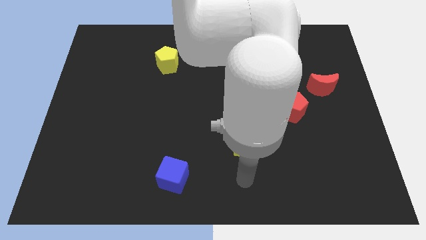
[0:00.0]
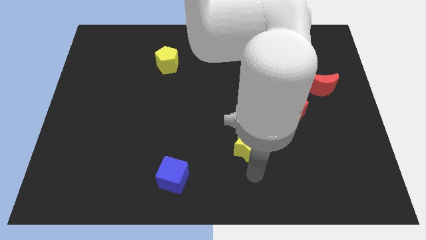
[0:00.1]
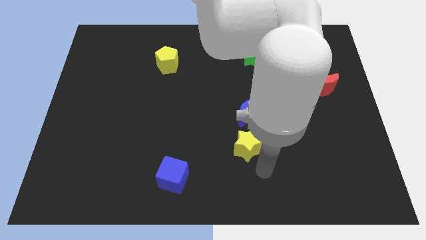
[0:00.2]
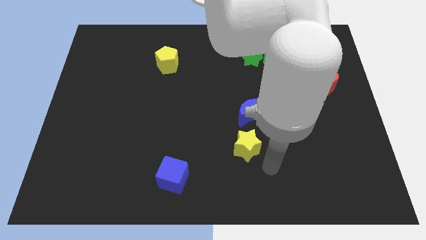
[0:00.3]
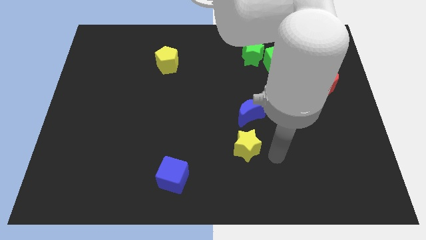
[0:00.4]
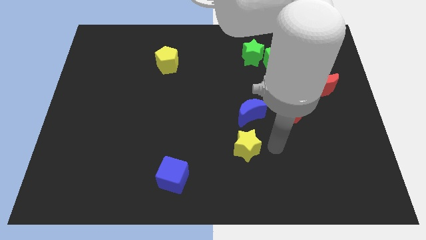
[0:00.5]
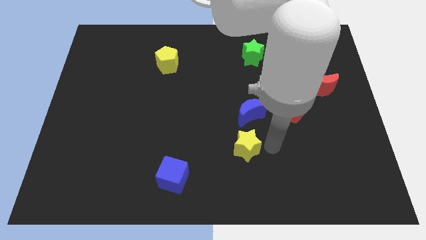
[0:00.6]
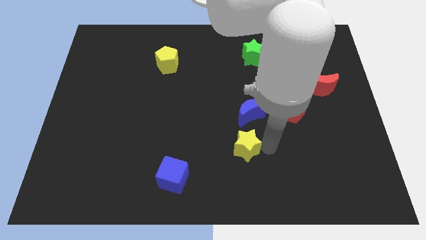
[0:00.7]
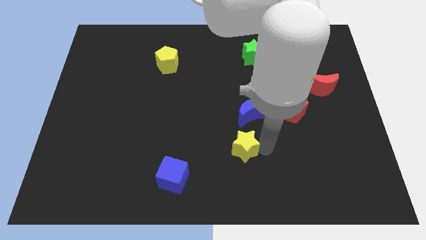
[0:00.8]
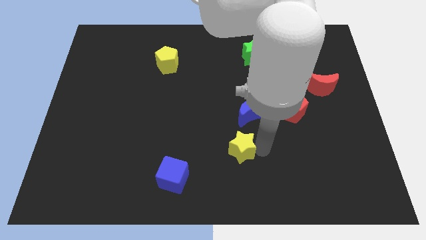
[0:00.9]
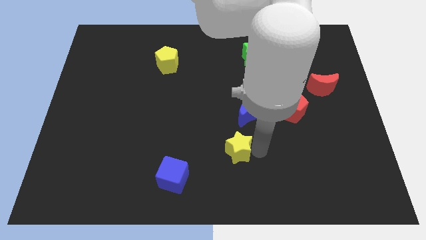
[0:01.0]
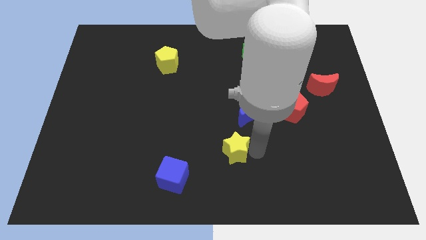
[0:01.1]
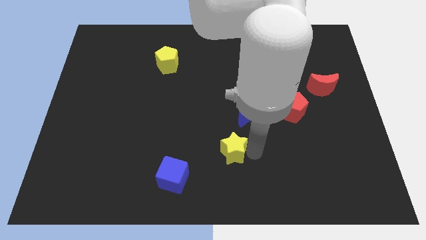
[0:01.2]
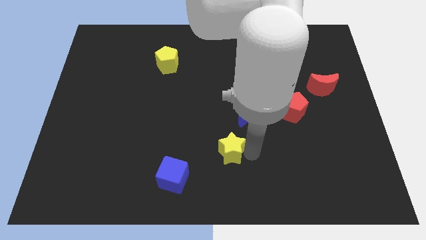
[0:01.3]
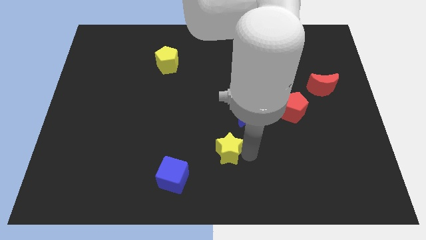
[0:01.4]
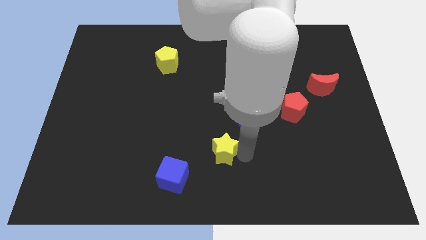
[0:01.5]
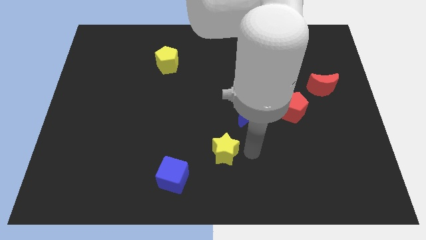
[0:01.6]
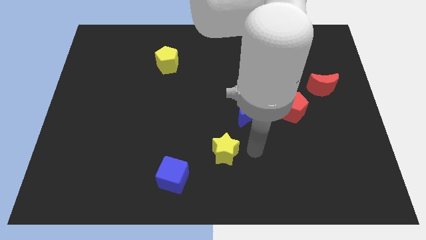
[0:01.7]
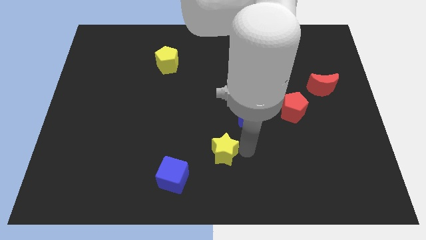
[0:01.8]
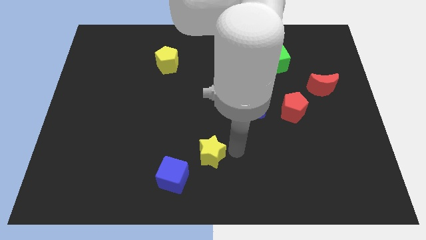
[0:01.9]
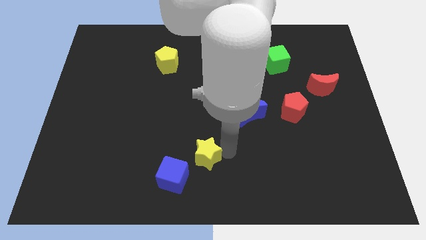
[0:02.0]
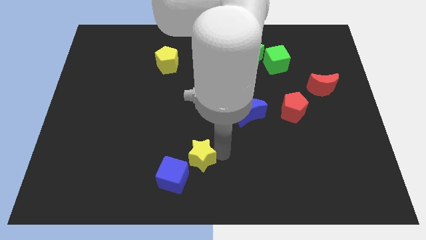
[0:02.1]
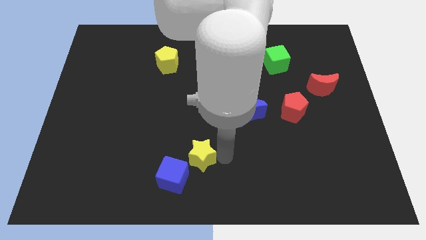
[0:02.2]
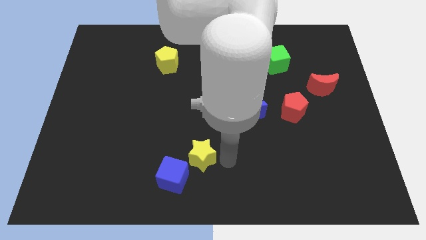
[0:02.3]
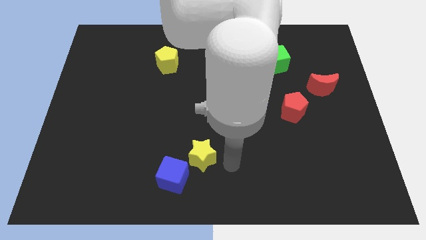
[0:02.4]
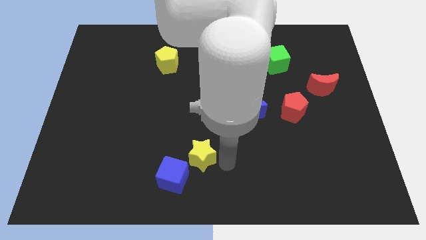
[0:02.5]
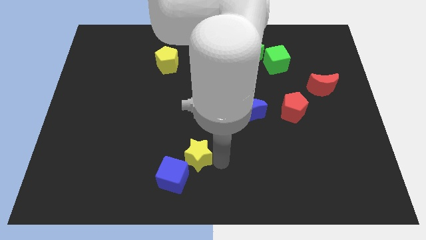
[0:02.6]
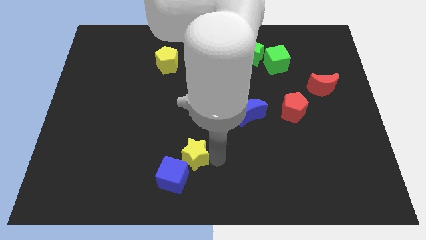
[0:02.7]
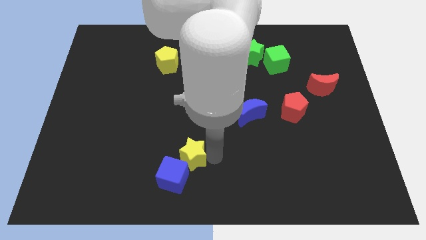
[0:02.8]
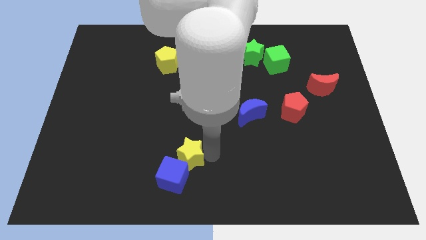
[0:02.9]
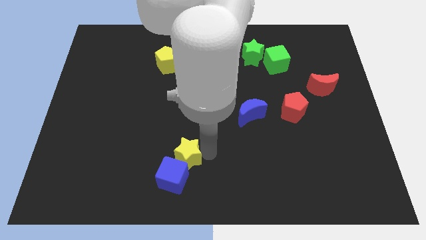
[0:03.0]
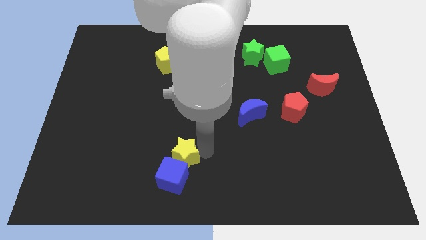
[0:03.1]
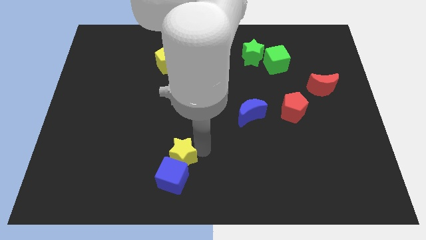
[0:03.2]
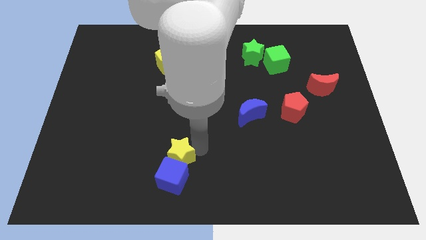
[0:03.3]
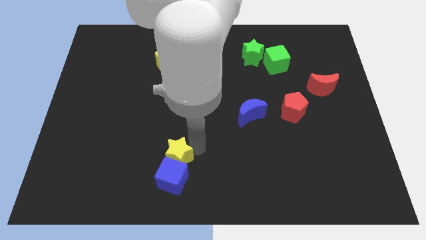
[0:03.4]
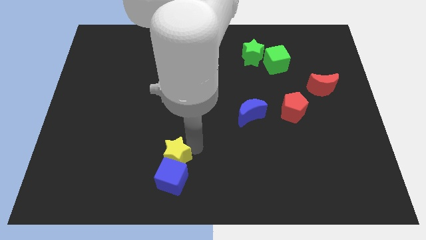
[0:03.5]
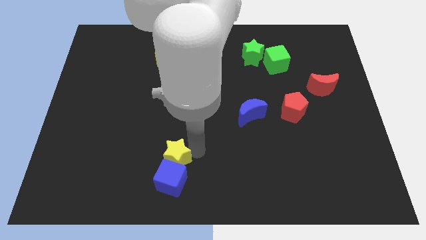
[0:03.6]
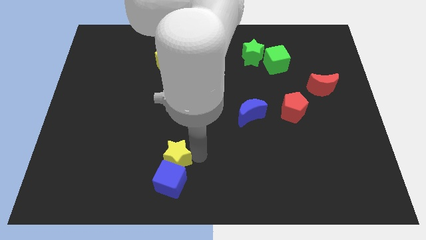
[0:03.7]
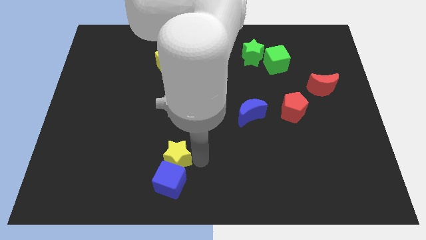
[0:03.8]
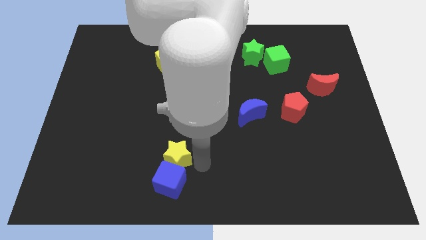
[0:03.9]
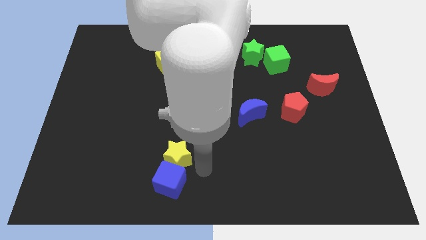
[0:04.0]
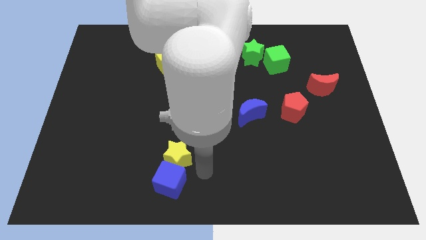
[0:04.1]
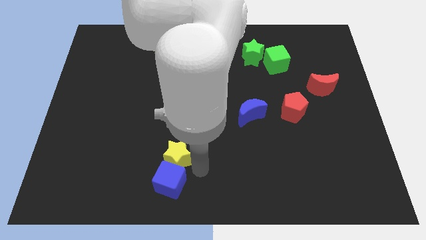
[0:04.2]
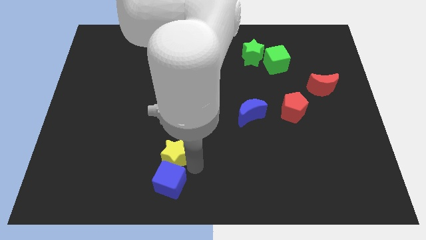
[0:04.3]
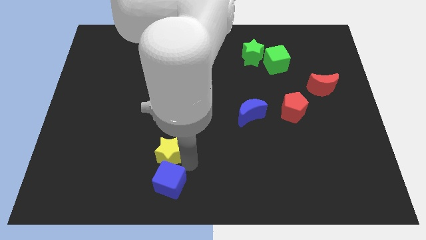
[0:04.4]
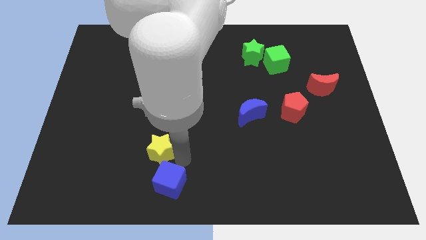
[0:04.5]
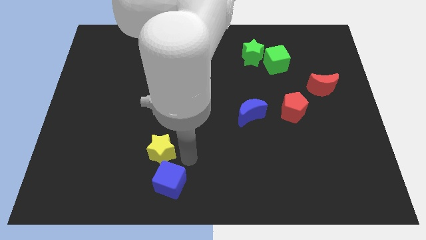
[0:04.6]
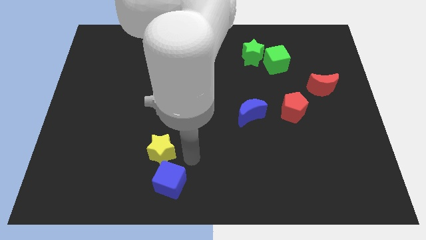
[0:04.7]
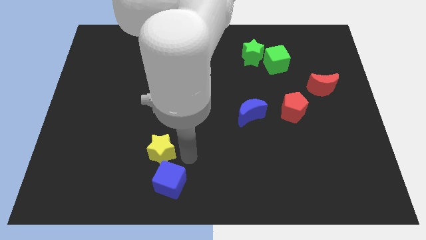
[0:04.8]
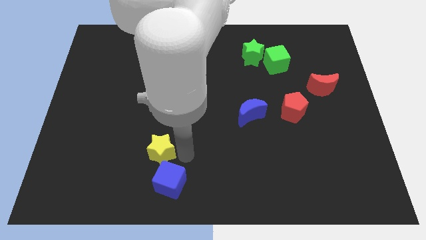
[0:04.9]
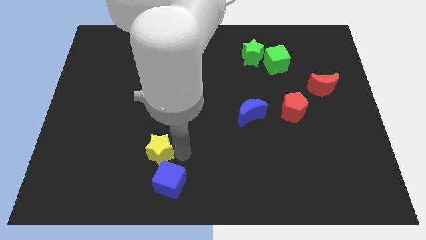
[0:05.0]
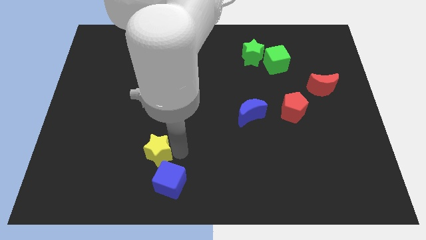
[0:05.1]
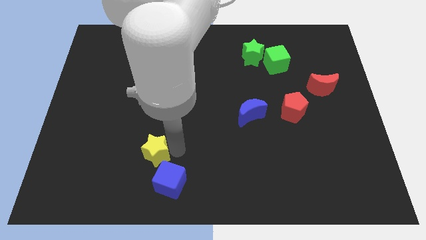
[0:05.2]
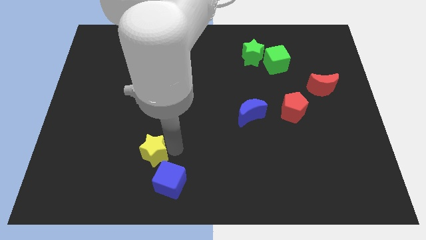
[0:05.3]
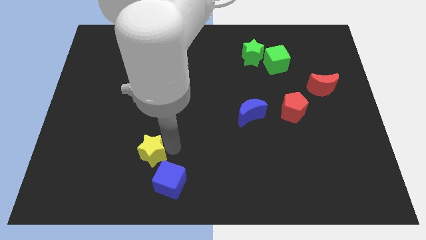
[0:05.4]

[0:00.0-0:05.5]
move the yellow star to the left

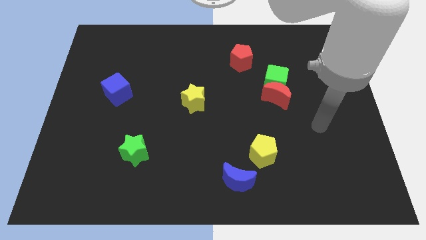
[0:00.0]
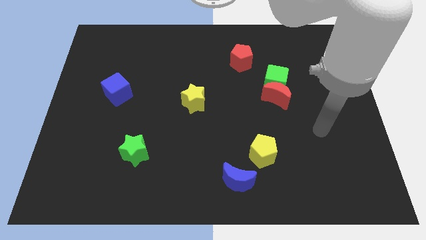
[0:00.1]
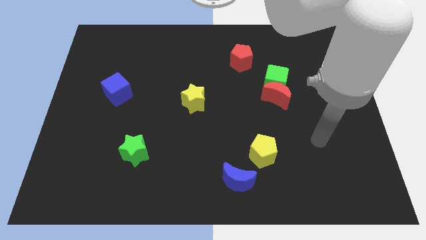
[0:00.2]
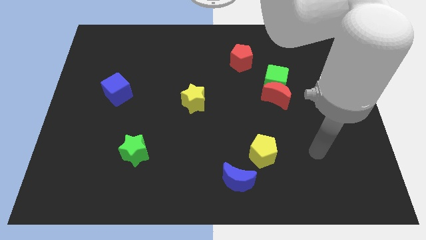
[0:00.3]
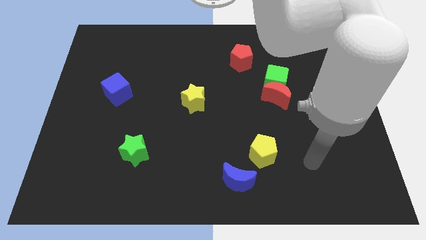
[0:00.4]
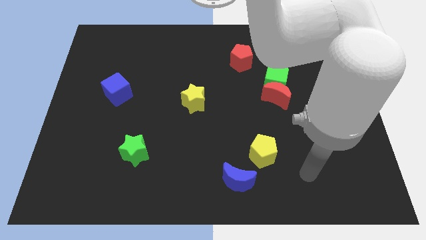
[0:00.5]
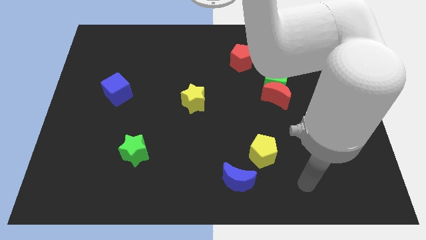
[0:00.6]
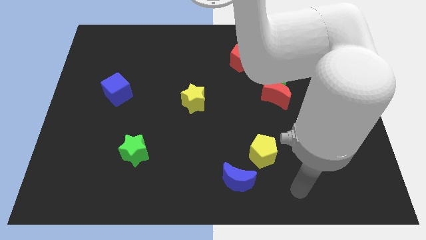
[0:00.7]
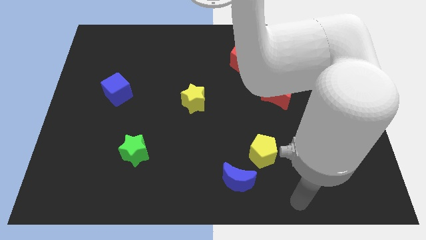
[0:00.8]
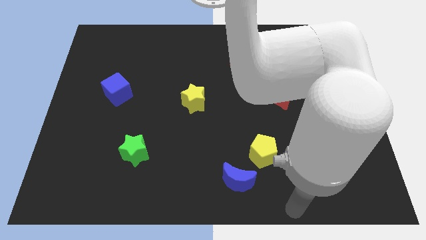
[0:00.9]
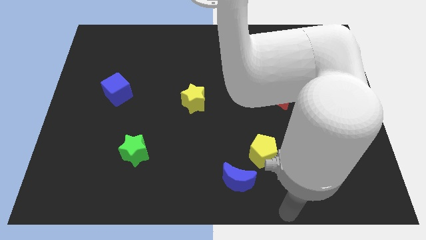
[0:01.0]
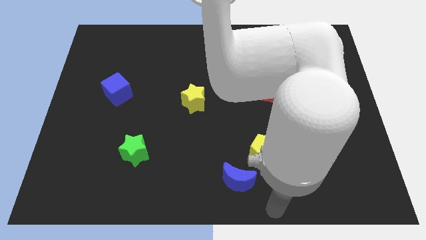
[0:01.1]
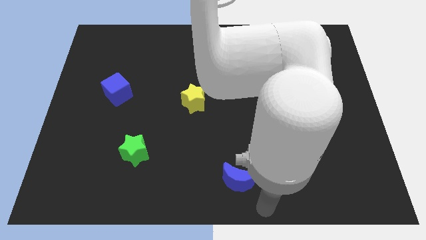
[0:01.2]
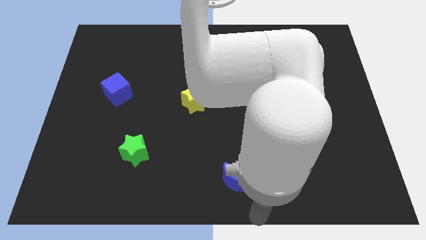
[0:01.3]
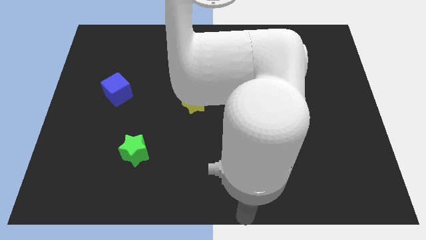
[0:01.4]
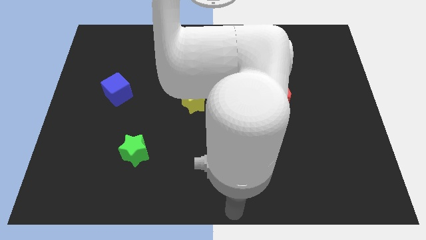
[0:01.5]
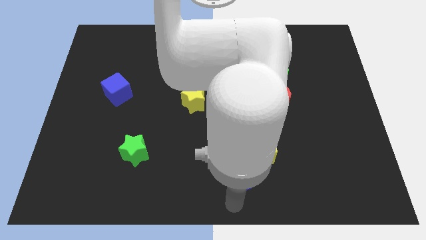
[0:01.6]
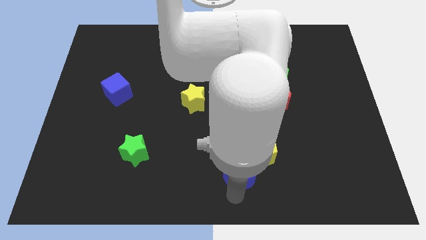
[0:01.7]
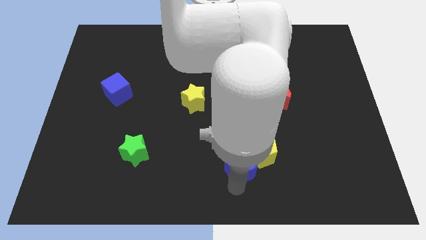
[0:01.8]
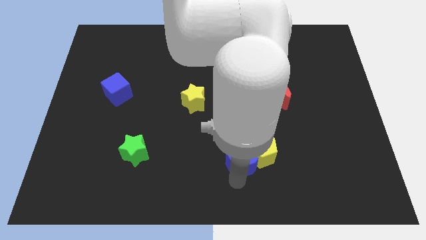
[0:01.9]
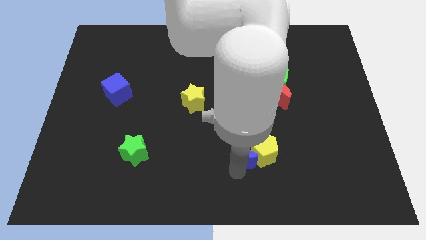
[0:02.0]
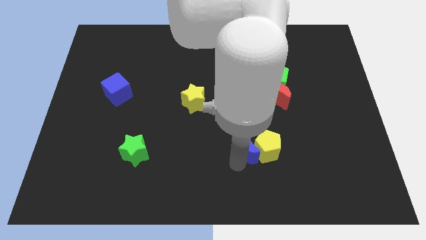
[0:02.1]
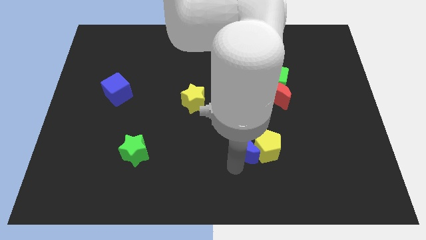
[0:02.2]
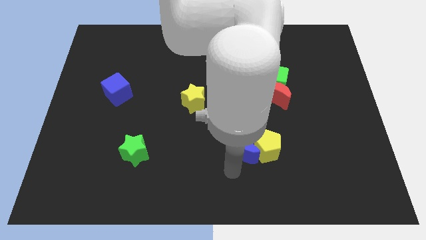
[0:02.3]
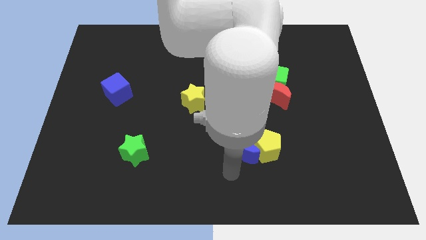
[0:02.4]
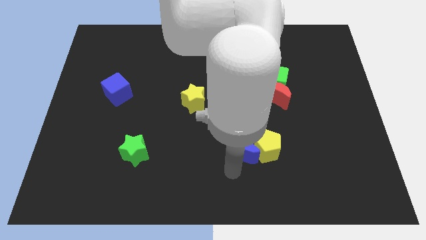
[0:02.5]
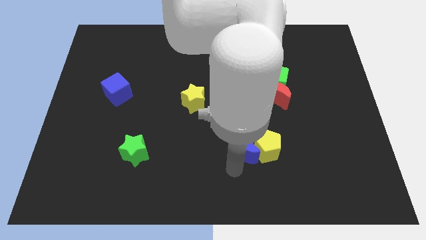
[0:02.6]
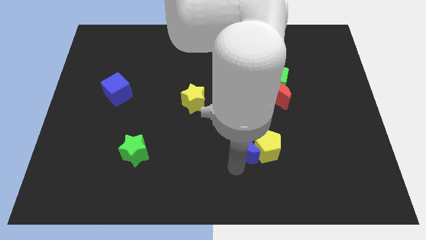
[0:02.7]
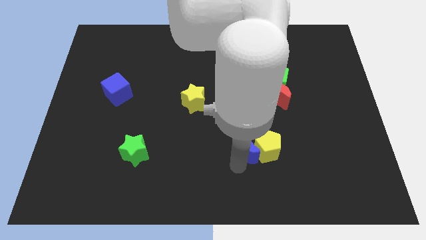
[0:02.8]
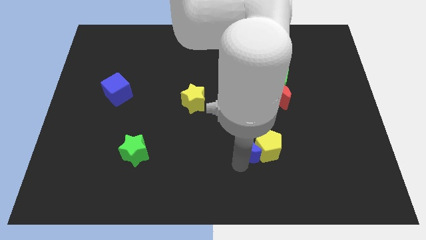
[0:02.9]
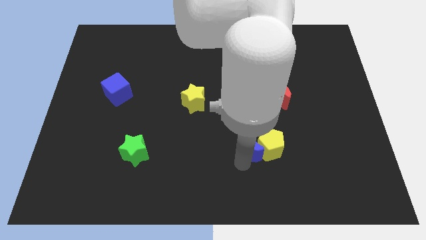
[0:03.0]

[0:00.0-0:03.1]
slightly push the blue moon up and to the right
